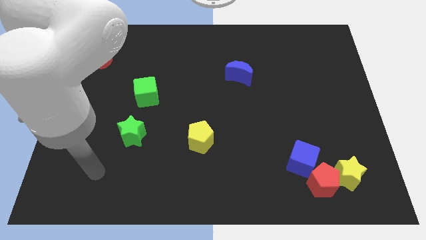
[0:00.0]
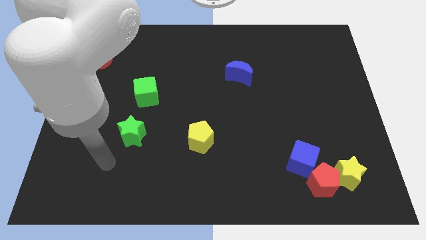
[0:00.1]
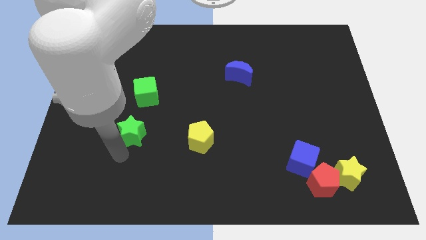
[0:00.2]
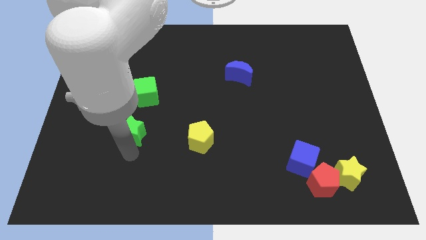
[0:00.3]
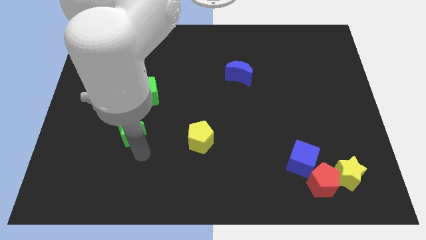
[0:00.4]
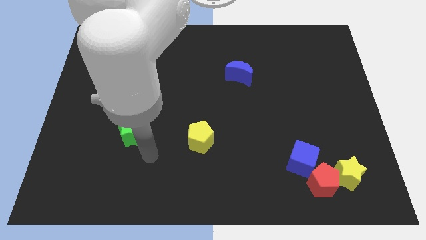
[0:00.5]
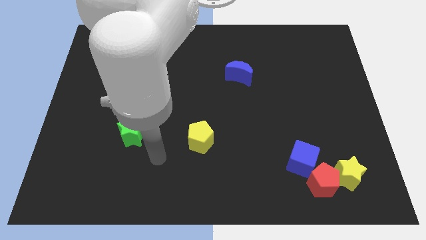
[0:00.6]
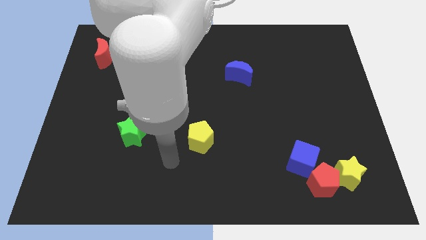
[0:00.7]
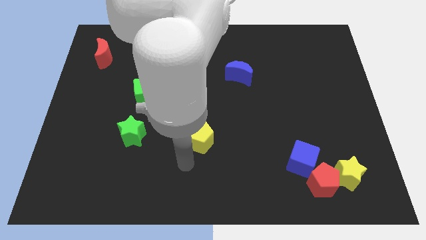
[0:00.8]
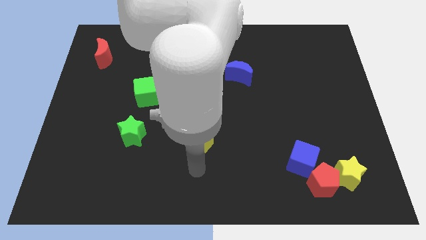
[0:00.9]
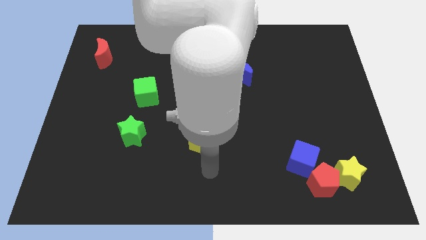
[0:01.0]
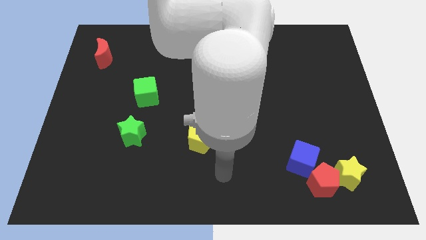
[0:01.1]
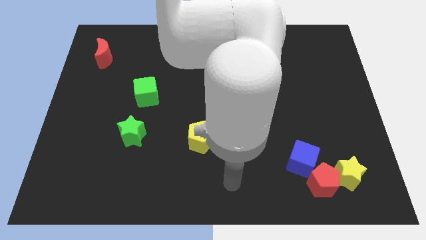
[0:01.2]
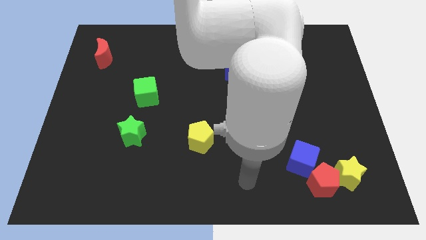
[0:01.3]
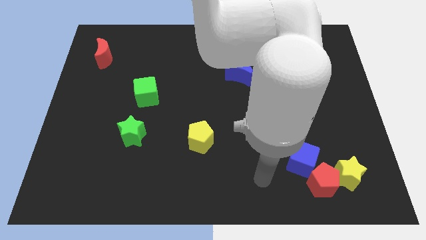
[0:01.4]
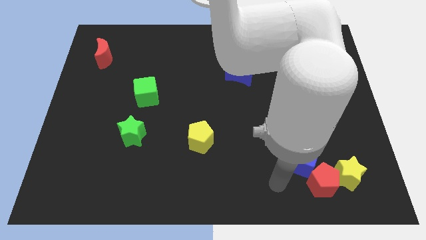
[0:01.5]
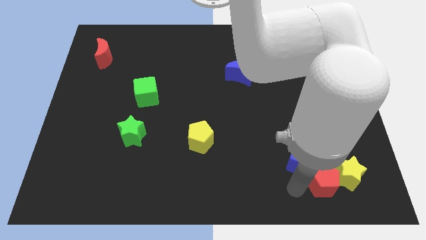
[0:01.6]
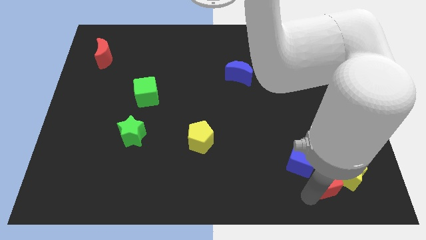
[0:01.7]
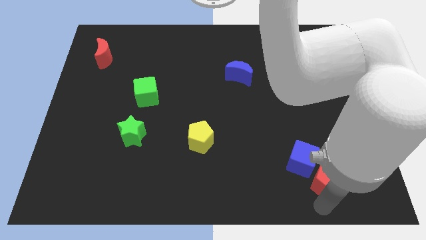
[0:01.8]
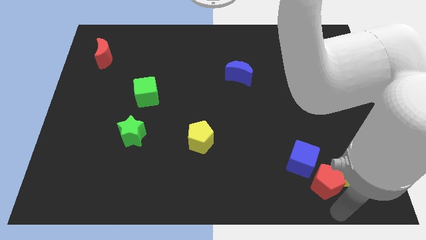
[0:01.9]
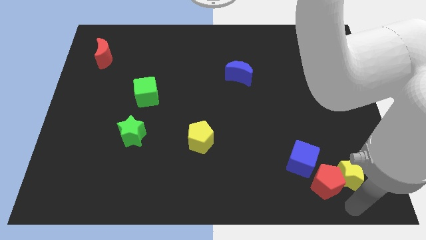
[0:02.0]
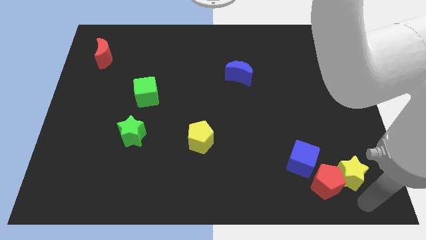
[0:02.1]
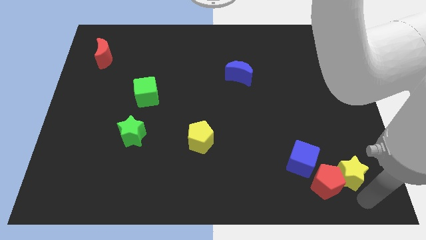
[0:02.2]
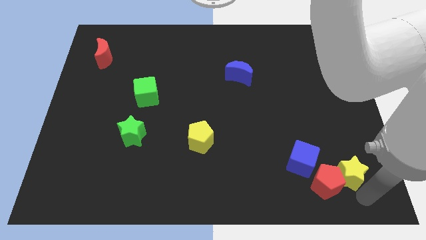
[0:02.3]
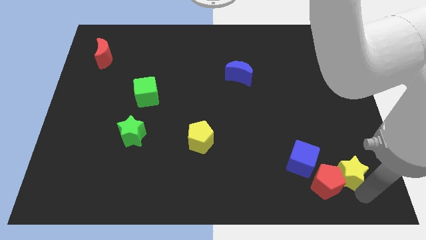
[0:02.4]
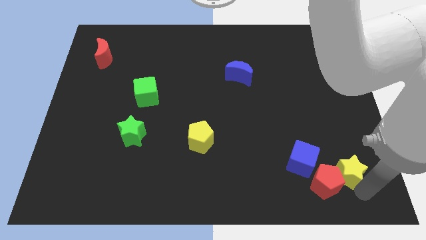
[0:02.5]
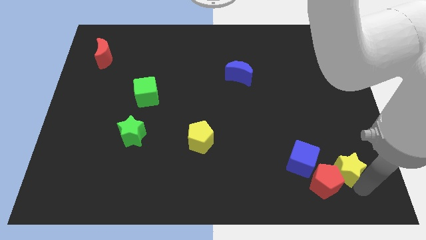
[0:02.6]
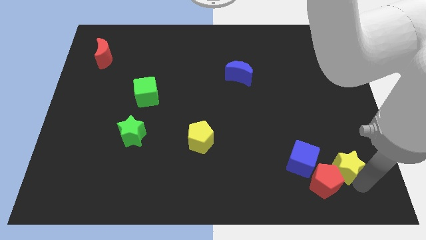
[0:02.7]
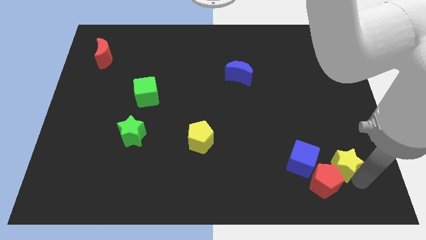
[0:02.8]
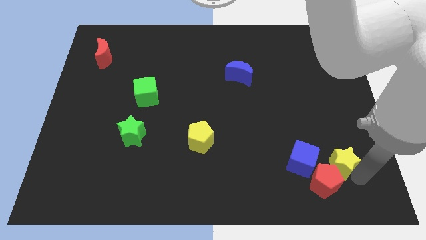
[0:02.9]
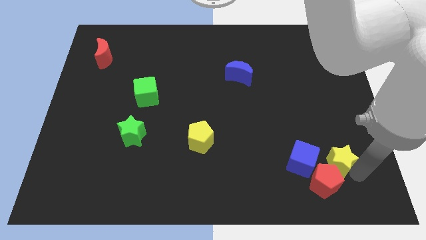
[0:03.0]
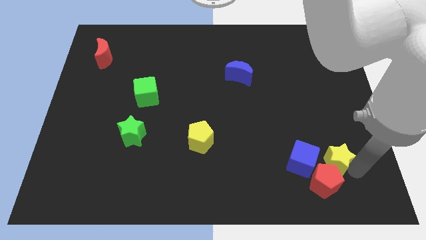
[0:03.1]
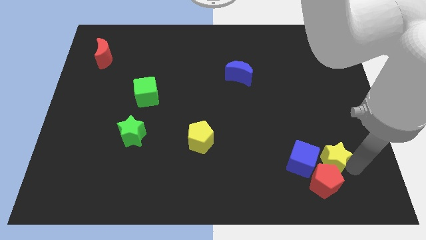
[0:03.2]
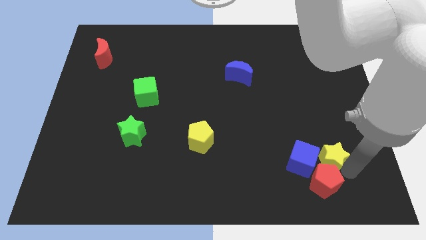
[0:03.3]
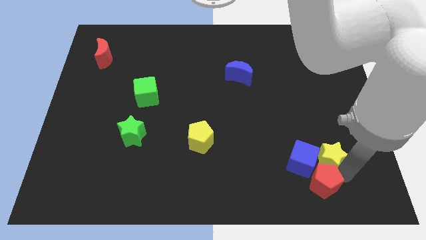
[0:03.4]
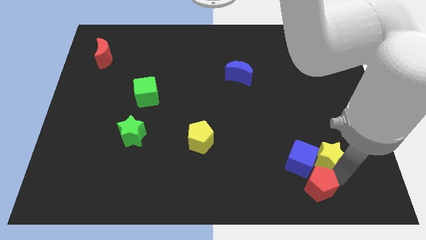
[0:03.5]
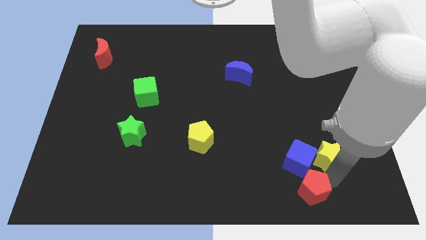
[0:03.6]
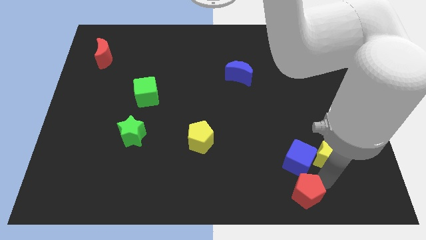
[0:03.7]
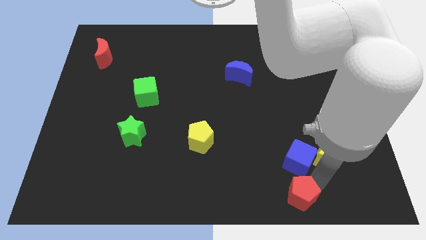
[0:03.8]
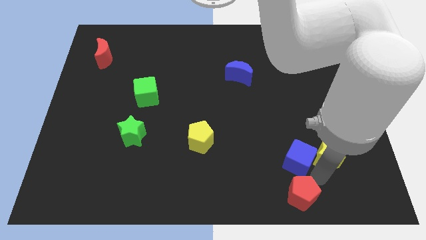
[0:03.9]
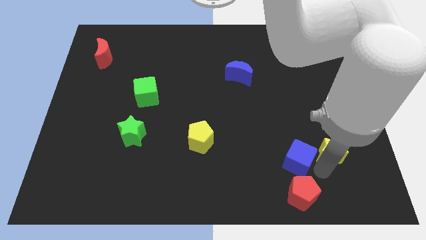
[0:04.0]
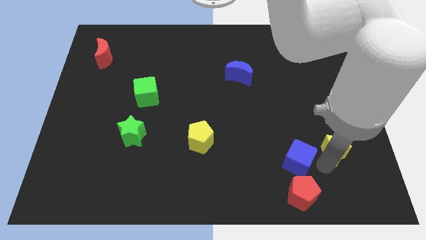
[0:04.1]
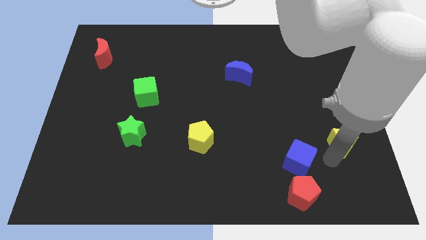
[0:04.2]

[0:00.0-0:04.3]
move the yellow star a little bit upwards

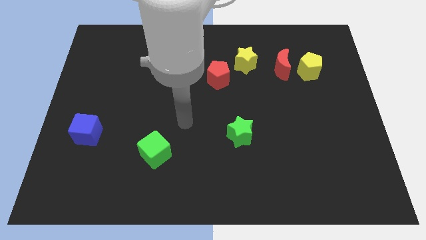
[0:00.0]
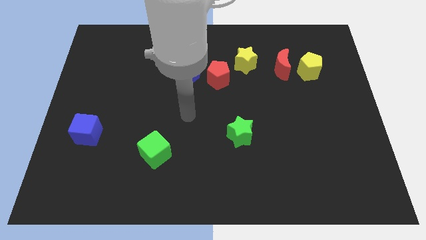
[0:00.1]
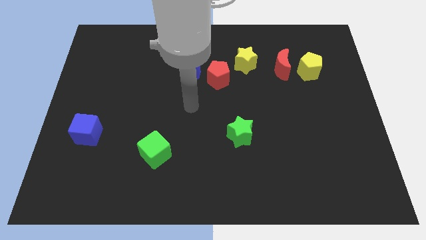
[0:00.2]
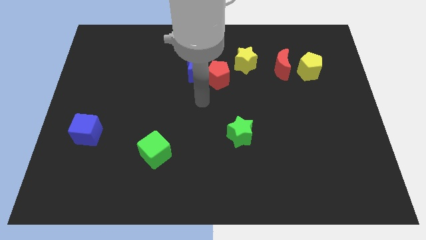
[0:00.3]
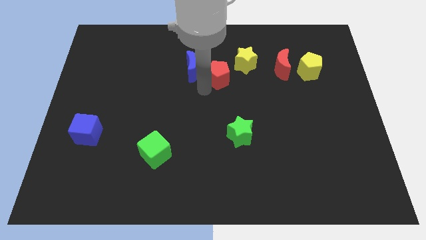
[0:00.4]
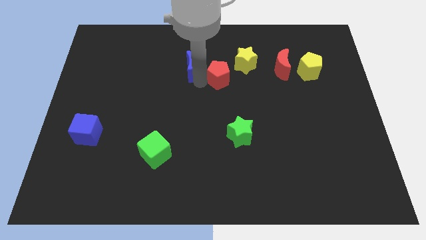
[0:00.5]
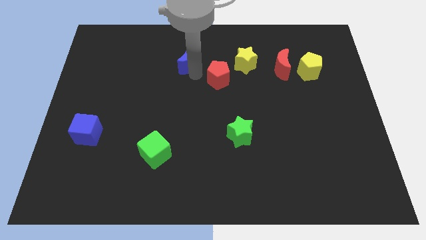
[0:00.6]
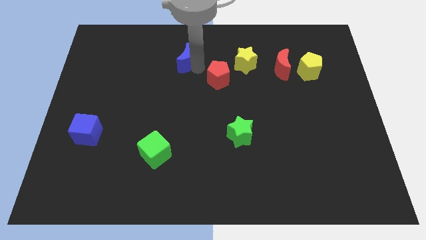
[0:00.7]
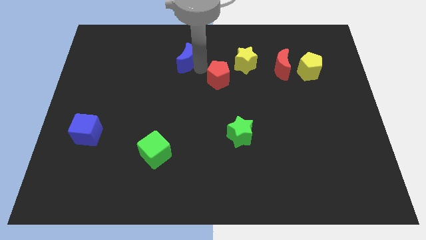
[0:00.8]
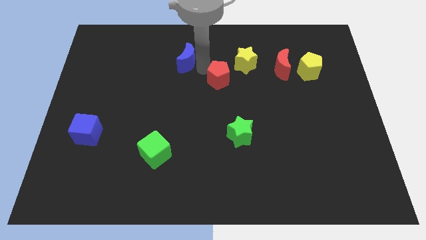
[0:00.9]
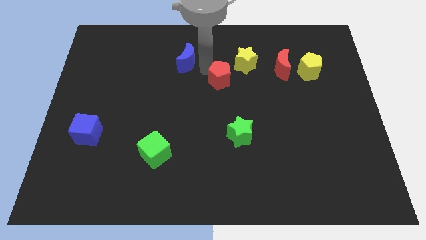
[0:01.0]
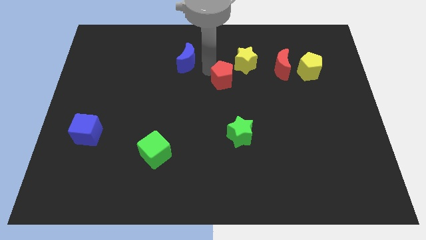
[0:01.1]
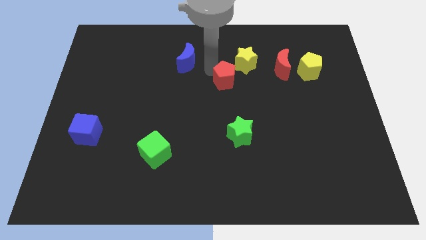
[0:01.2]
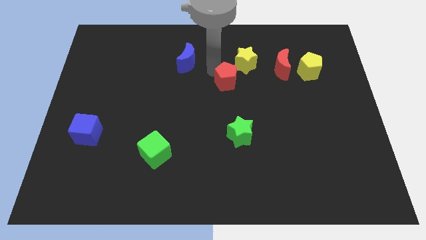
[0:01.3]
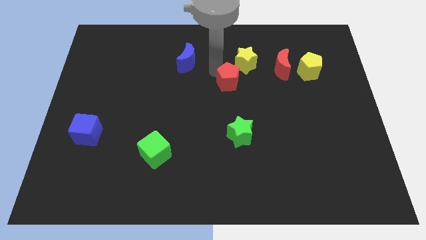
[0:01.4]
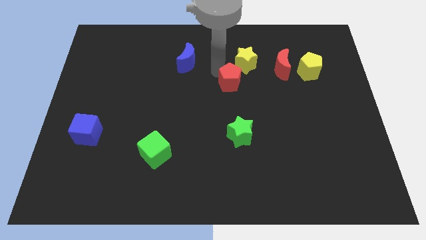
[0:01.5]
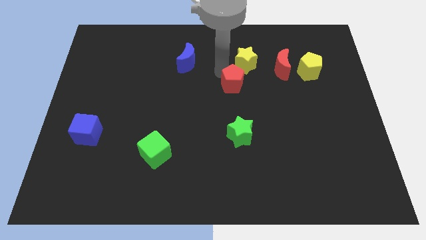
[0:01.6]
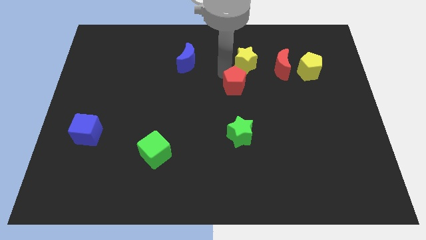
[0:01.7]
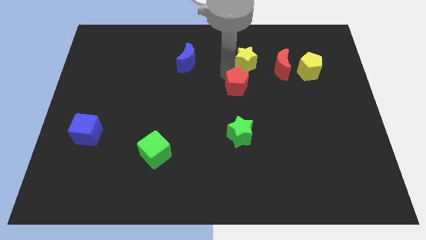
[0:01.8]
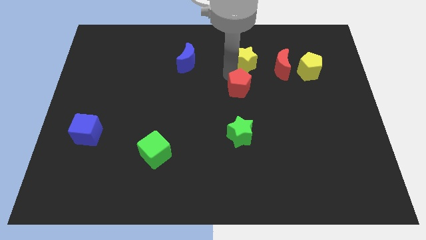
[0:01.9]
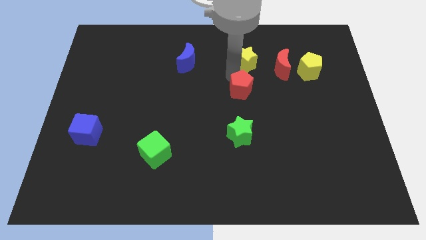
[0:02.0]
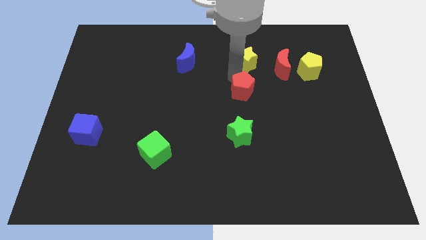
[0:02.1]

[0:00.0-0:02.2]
push the red pentagon a little bit down and right diagonally

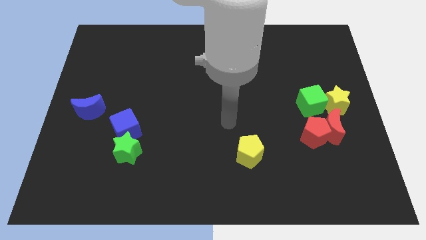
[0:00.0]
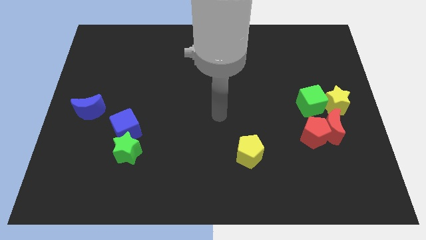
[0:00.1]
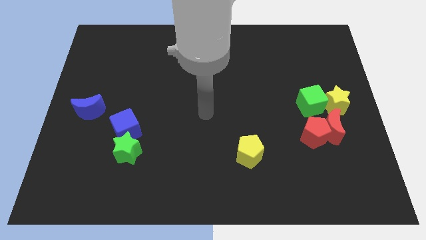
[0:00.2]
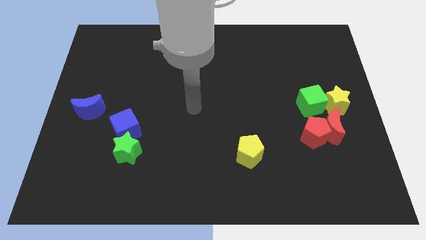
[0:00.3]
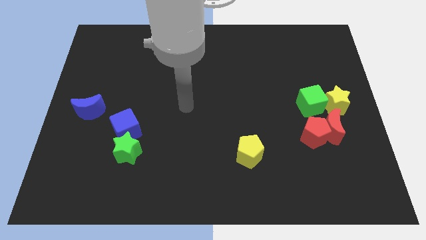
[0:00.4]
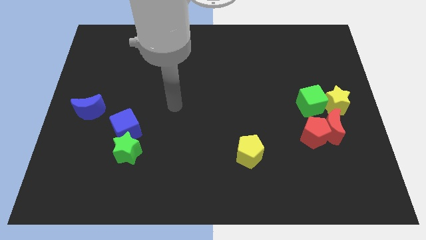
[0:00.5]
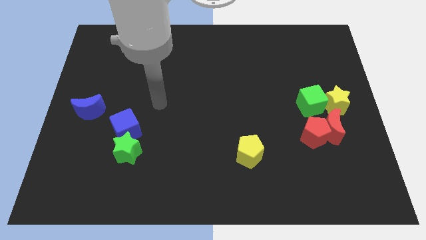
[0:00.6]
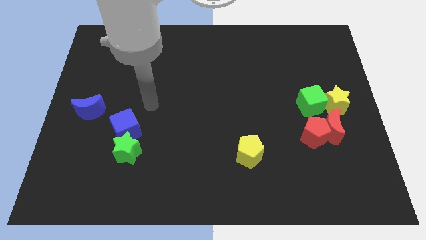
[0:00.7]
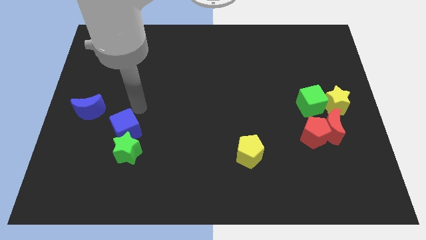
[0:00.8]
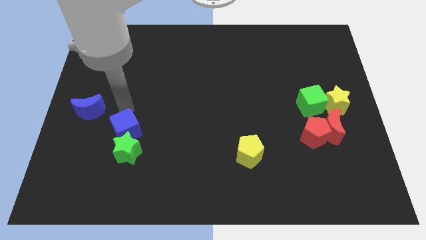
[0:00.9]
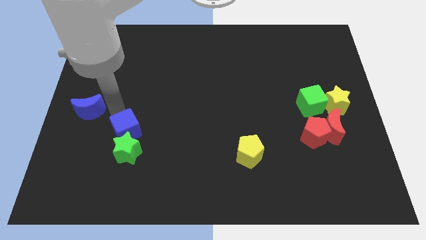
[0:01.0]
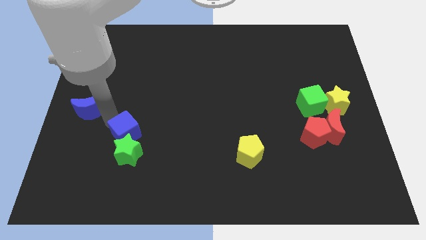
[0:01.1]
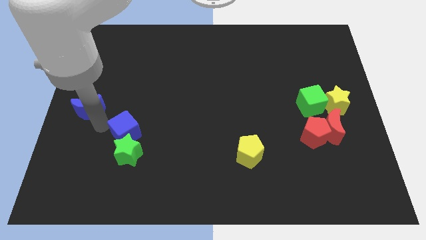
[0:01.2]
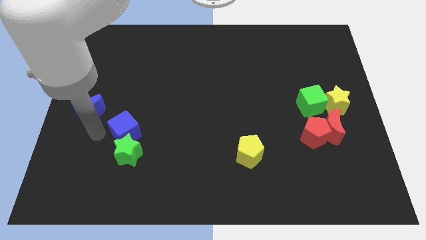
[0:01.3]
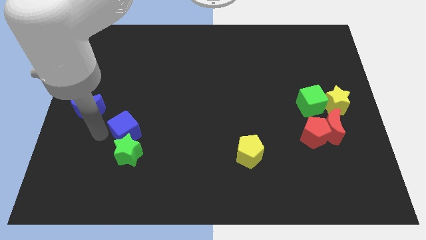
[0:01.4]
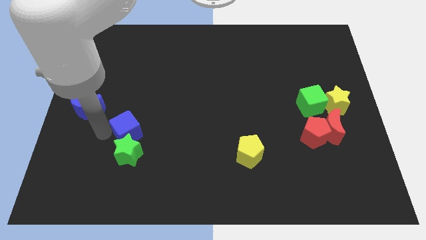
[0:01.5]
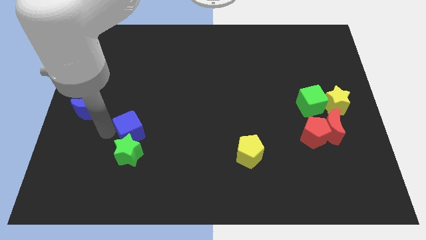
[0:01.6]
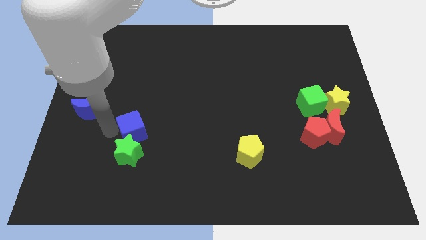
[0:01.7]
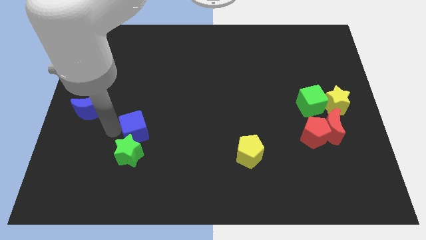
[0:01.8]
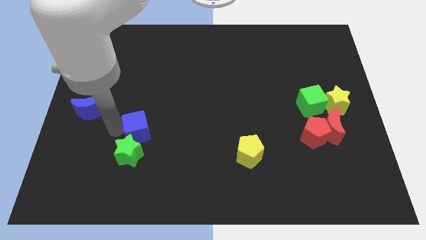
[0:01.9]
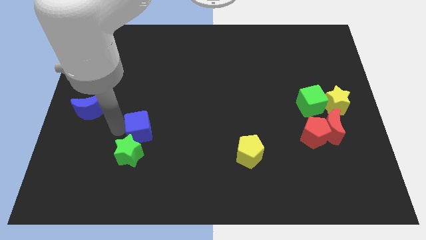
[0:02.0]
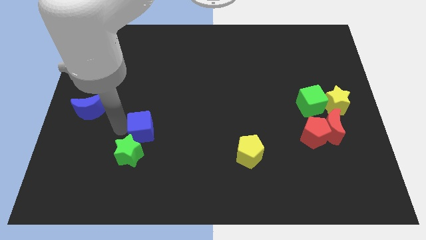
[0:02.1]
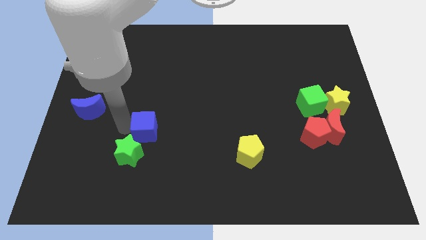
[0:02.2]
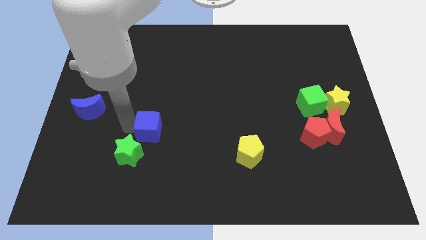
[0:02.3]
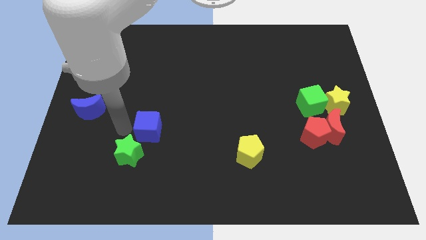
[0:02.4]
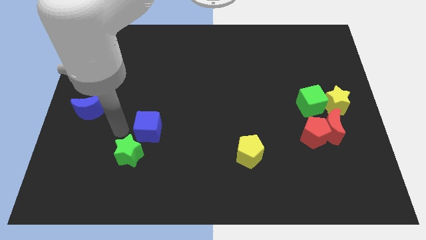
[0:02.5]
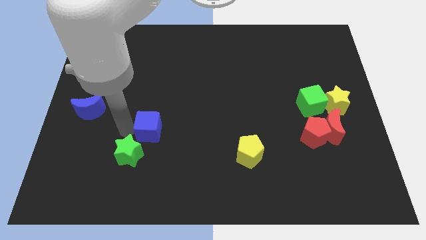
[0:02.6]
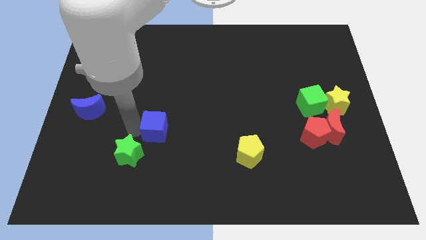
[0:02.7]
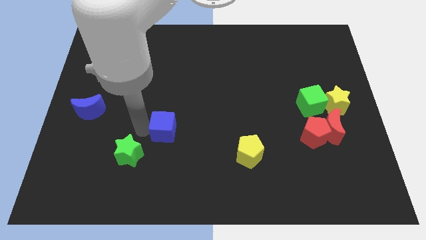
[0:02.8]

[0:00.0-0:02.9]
slightly move the blue cube right
